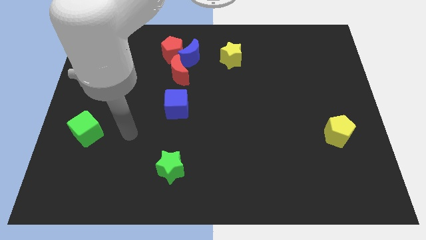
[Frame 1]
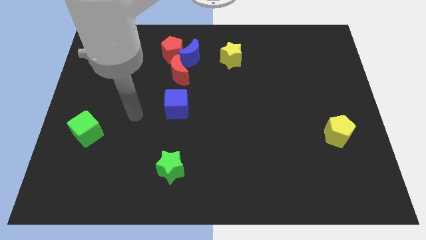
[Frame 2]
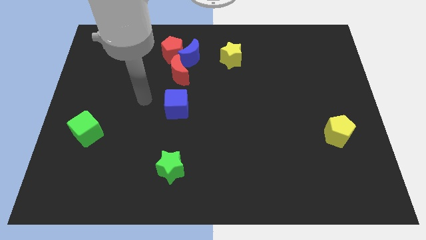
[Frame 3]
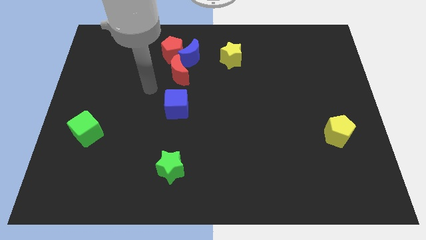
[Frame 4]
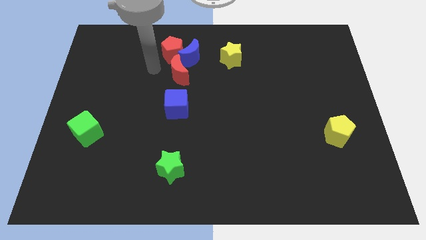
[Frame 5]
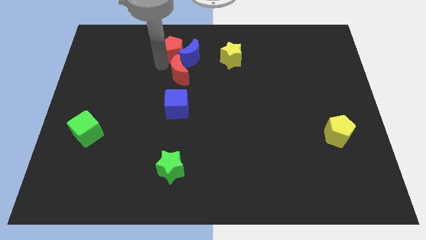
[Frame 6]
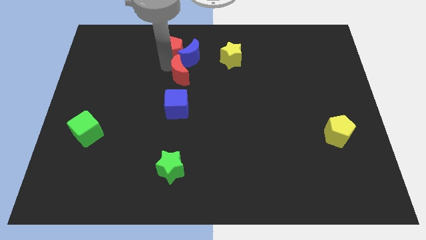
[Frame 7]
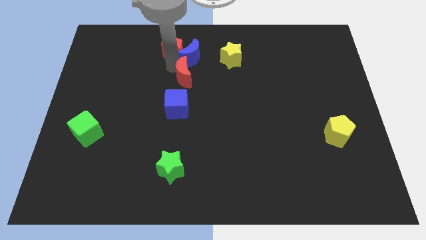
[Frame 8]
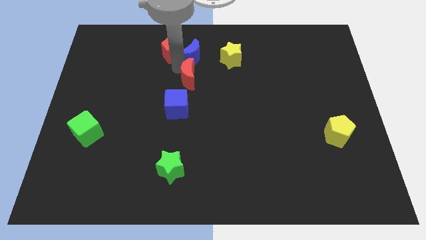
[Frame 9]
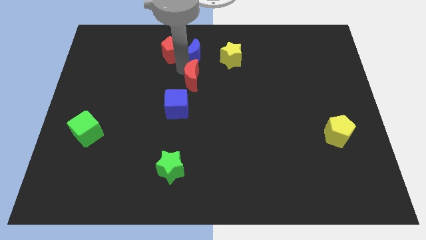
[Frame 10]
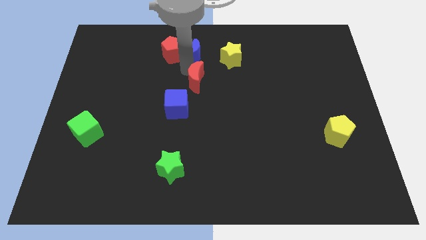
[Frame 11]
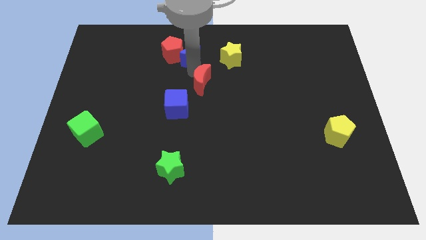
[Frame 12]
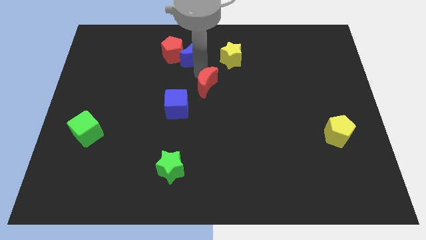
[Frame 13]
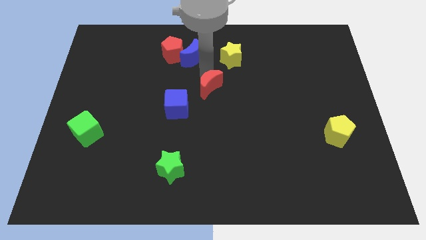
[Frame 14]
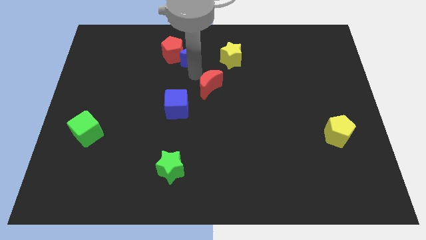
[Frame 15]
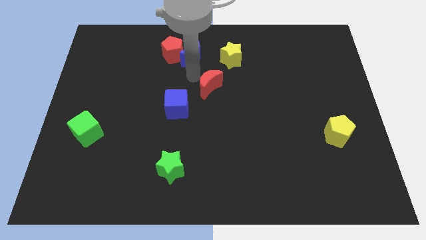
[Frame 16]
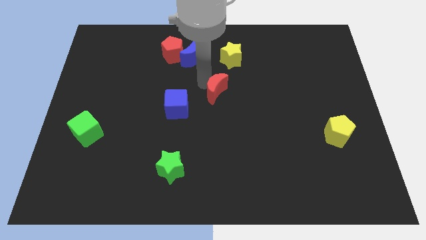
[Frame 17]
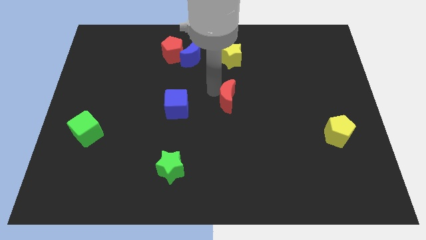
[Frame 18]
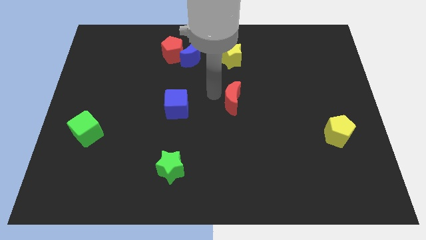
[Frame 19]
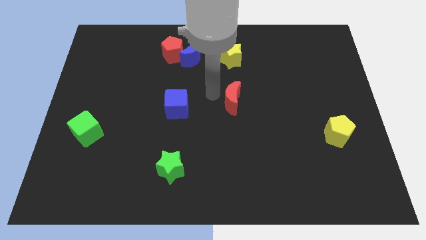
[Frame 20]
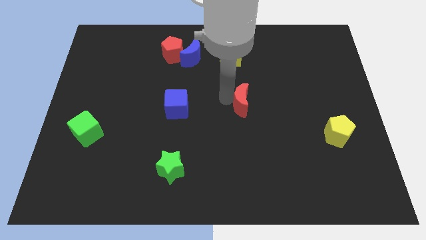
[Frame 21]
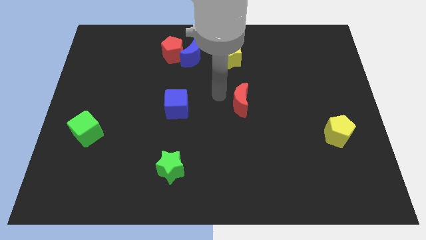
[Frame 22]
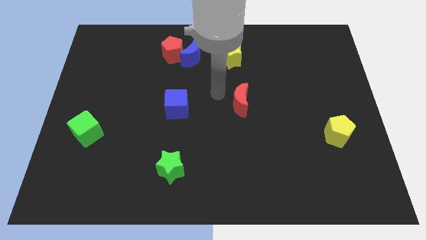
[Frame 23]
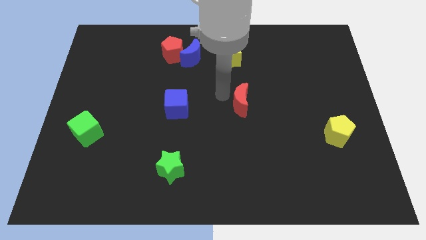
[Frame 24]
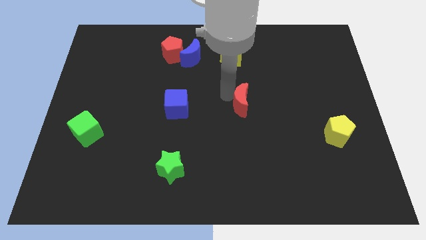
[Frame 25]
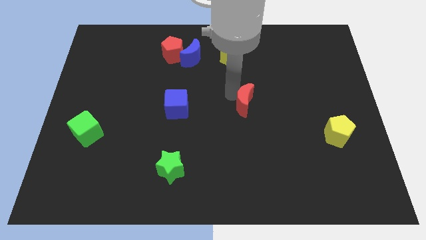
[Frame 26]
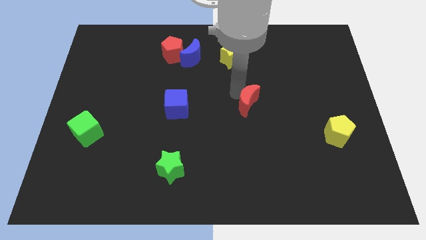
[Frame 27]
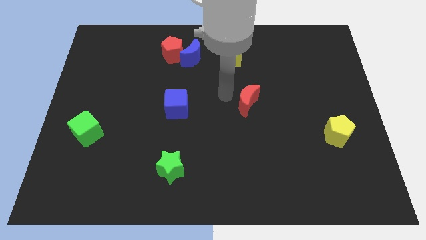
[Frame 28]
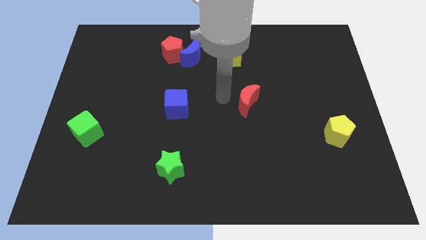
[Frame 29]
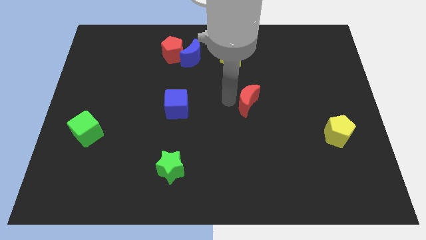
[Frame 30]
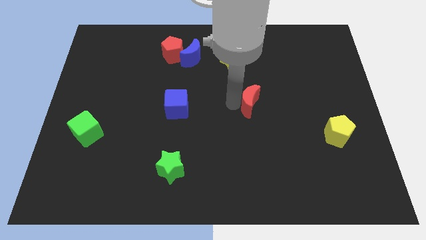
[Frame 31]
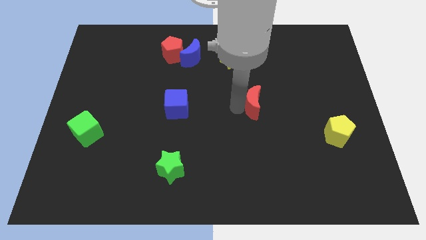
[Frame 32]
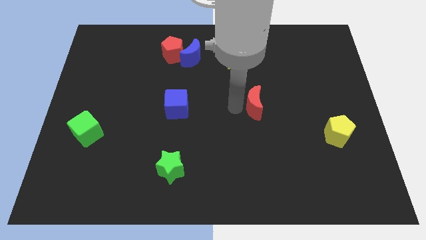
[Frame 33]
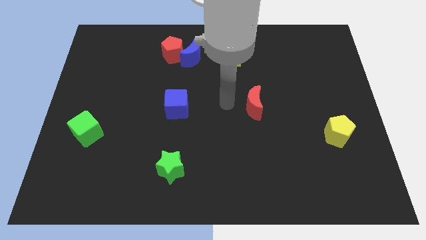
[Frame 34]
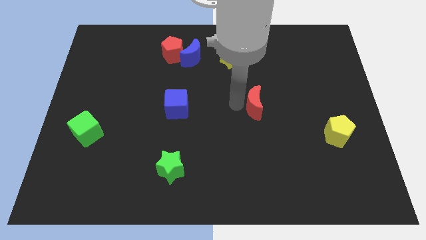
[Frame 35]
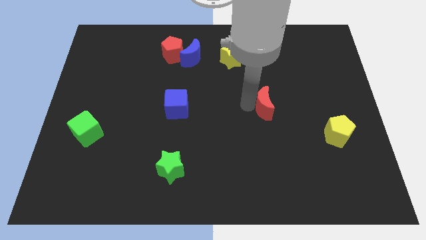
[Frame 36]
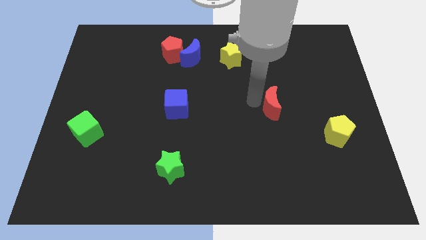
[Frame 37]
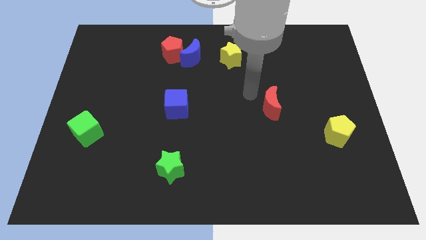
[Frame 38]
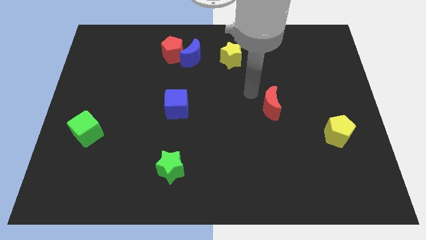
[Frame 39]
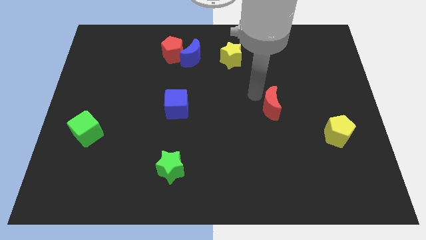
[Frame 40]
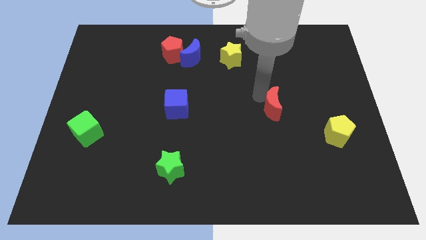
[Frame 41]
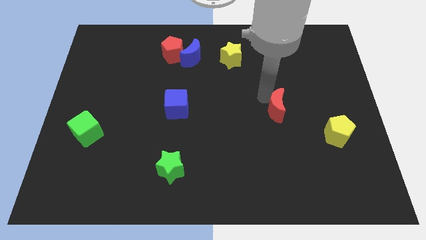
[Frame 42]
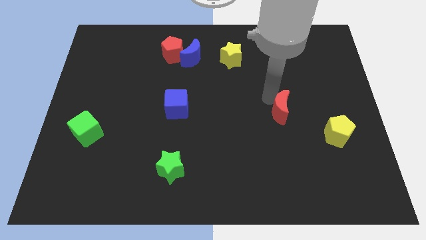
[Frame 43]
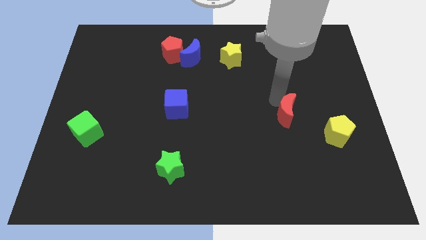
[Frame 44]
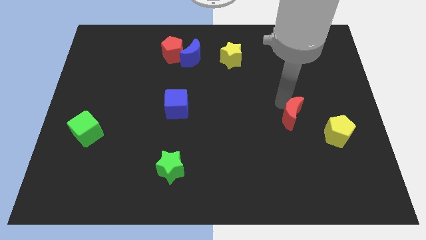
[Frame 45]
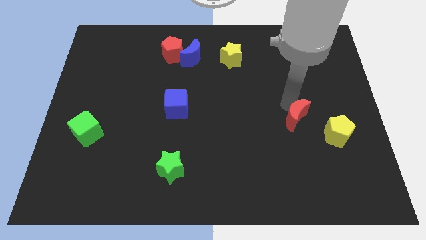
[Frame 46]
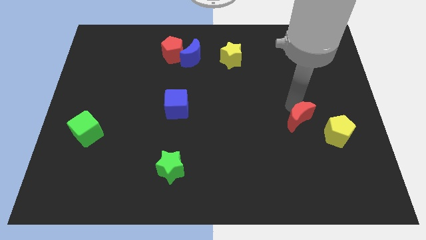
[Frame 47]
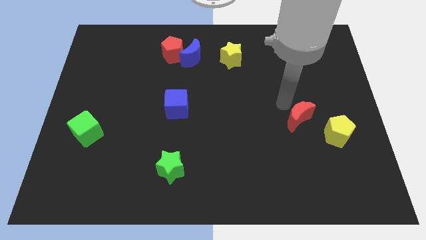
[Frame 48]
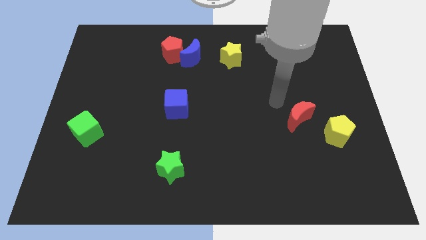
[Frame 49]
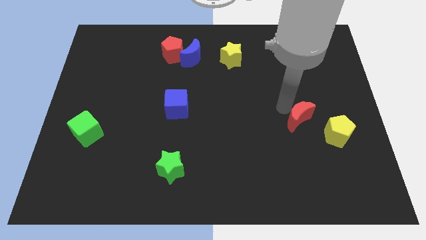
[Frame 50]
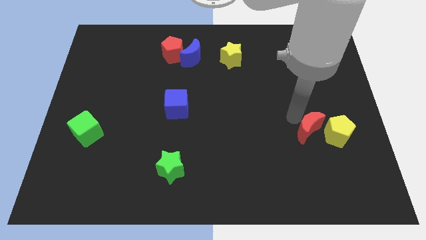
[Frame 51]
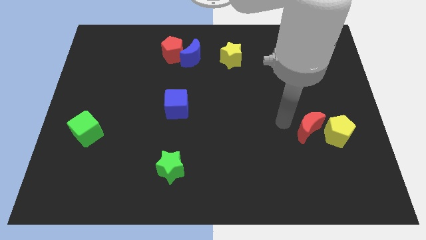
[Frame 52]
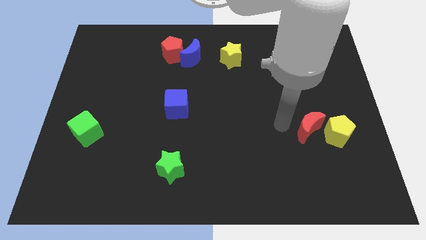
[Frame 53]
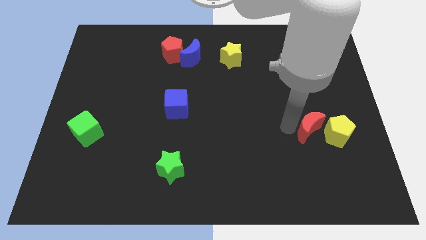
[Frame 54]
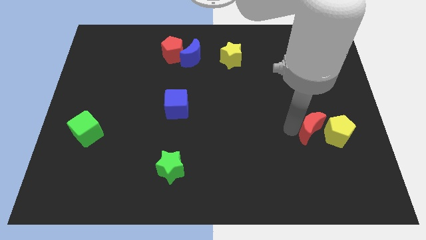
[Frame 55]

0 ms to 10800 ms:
put the red moon towards the yellow pentagon

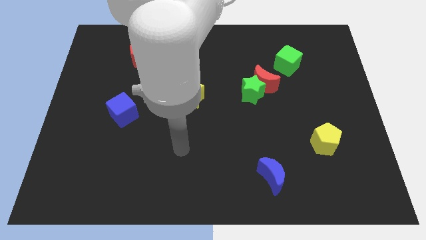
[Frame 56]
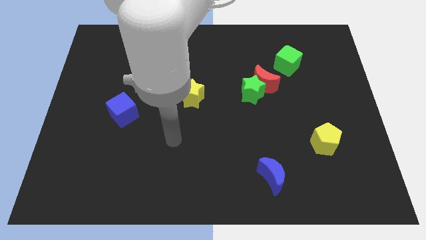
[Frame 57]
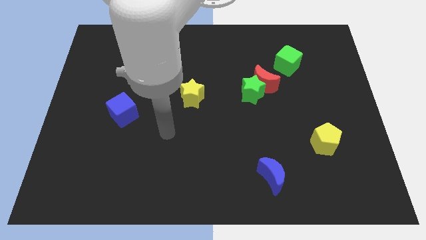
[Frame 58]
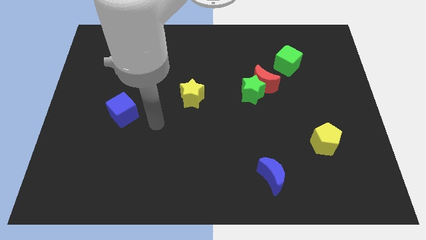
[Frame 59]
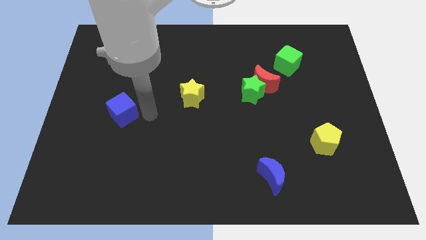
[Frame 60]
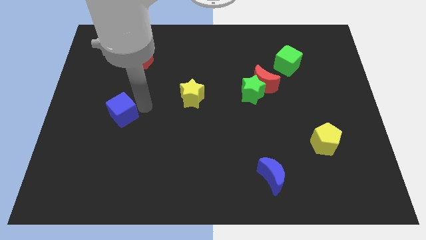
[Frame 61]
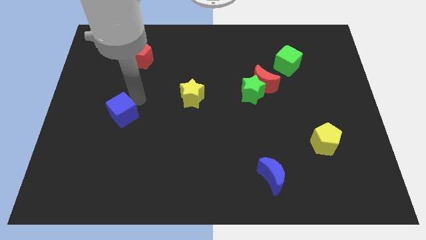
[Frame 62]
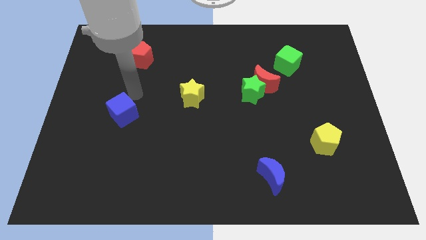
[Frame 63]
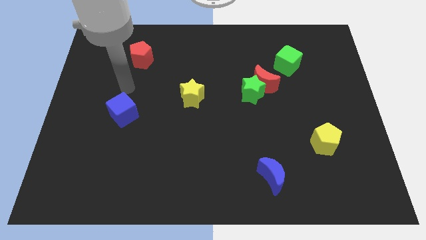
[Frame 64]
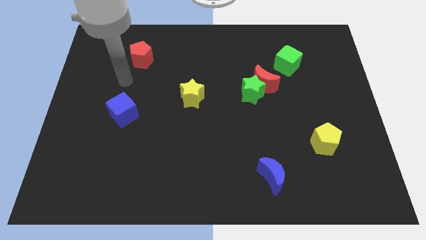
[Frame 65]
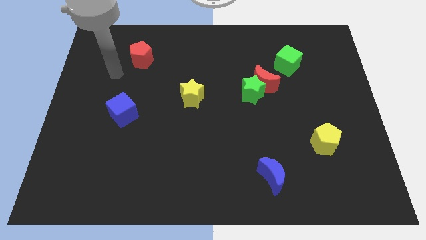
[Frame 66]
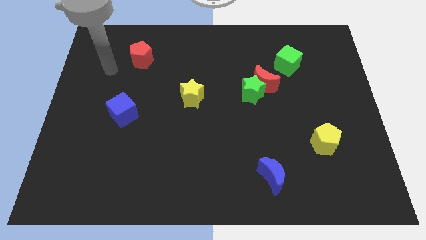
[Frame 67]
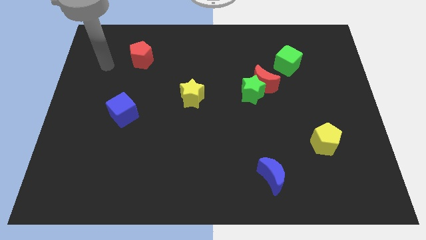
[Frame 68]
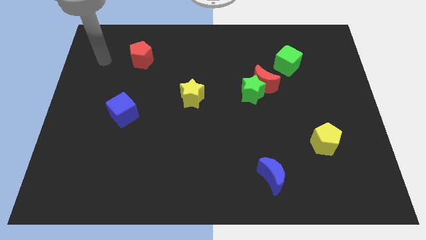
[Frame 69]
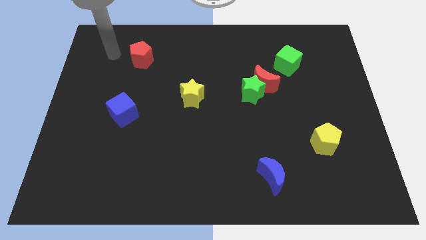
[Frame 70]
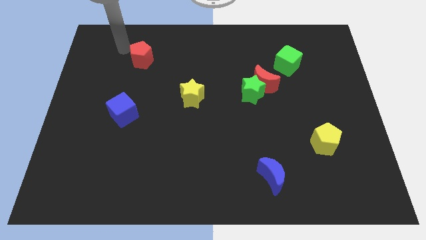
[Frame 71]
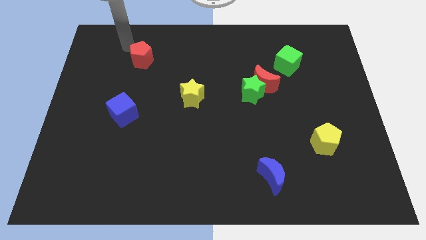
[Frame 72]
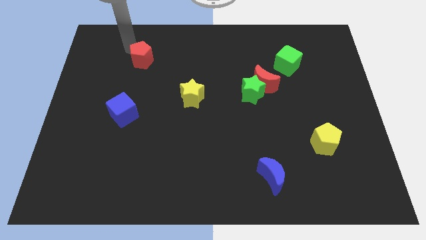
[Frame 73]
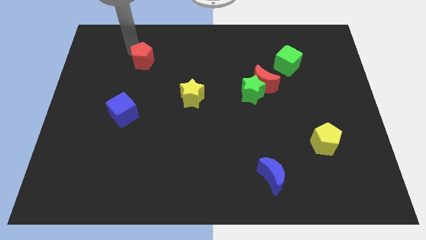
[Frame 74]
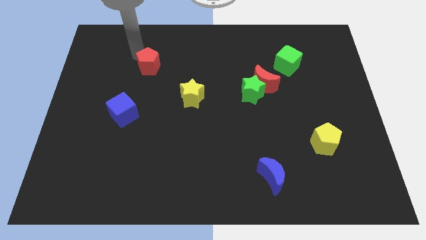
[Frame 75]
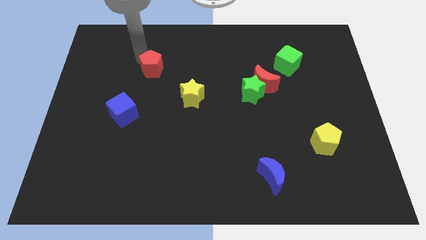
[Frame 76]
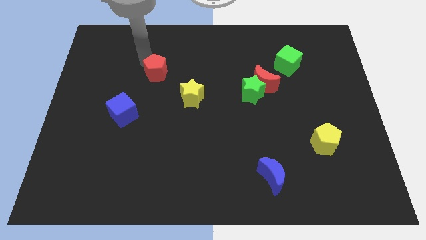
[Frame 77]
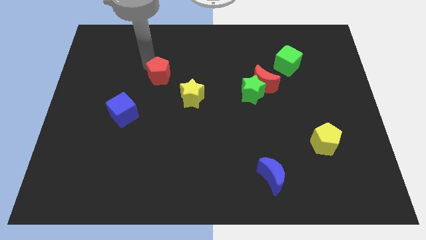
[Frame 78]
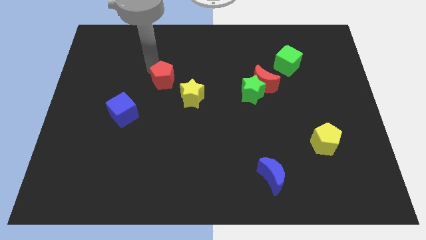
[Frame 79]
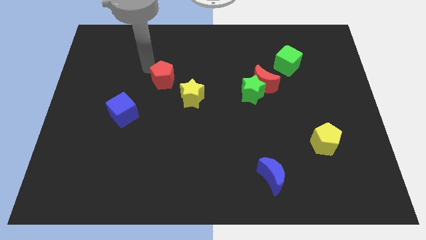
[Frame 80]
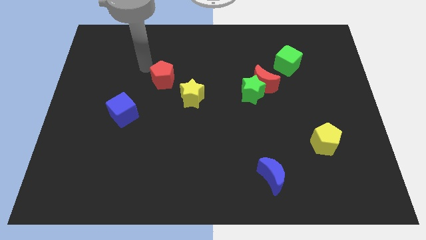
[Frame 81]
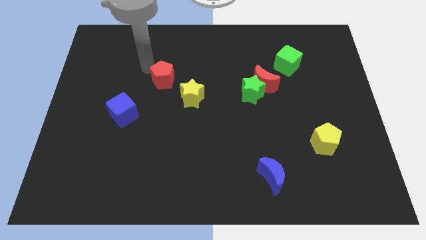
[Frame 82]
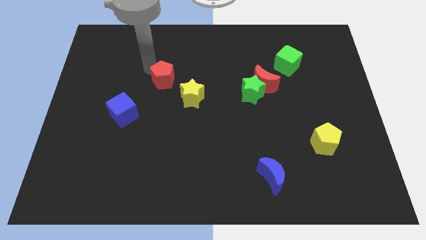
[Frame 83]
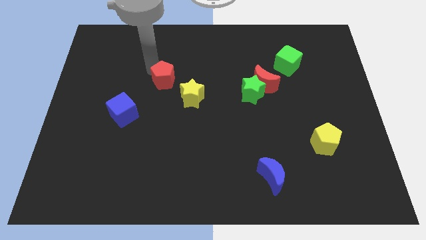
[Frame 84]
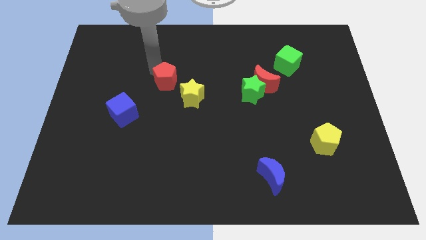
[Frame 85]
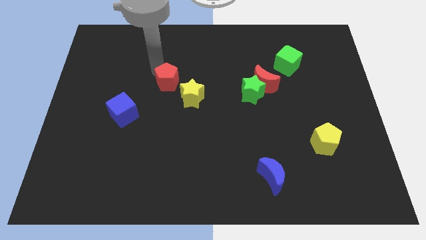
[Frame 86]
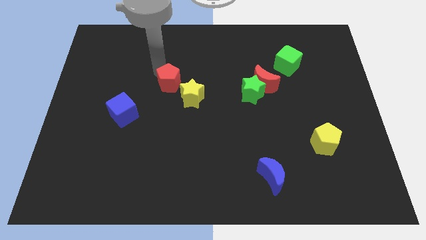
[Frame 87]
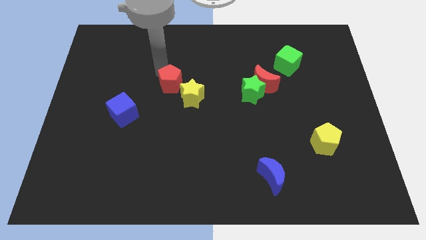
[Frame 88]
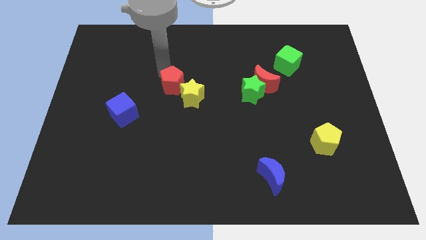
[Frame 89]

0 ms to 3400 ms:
push the red pentagon towards the yellow star
